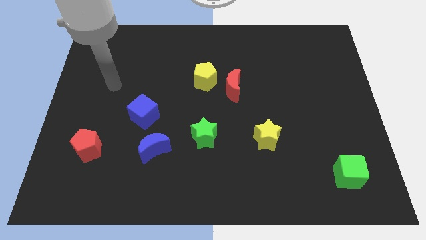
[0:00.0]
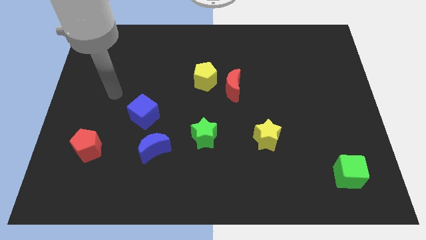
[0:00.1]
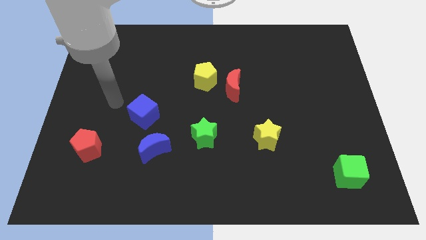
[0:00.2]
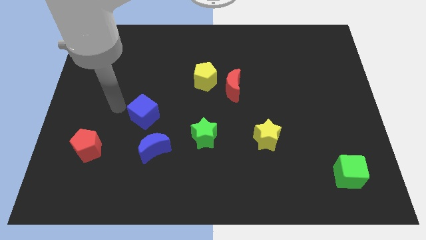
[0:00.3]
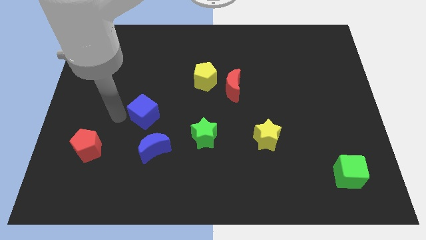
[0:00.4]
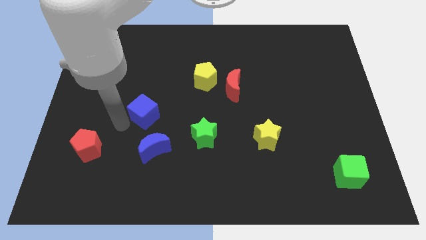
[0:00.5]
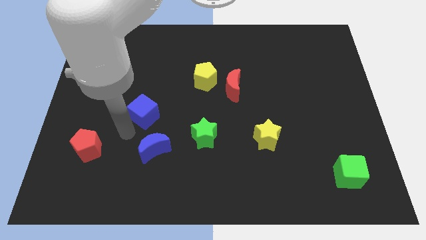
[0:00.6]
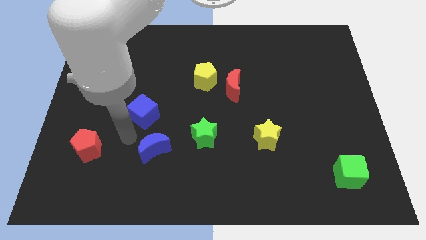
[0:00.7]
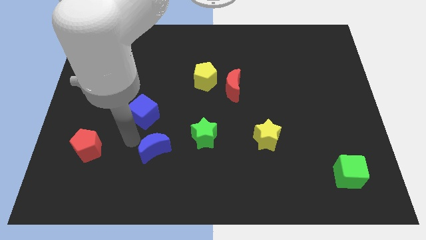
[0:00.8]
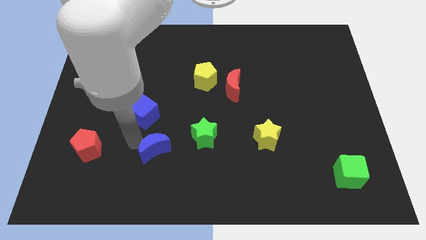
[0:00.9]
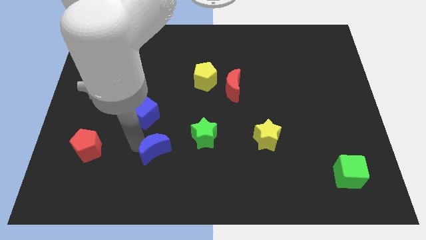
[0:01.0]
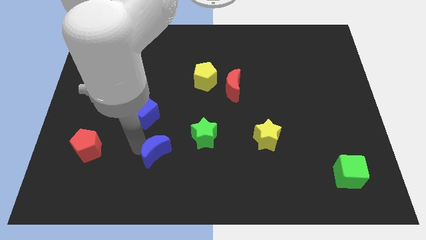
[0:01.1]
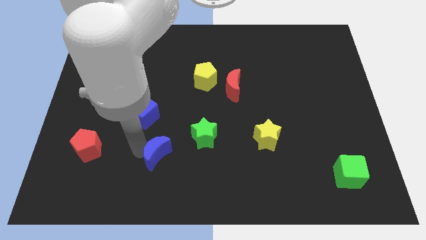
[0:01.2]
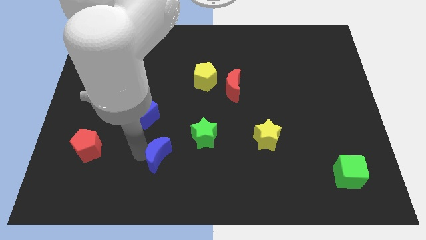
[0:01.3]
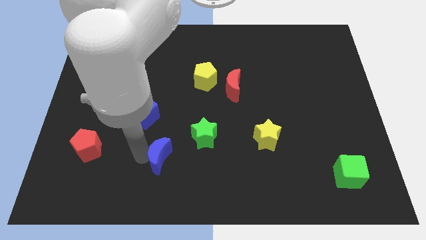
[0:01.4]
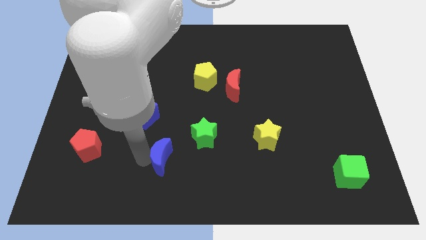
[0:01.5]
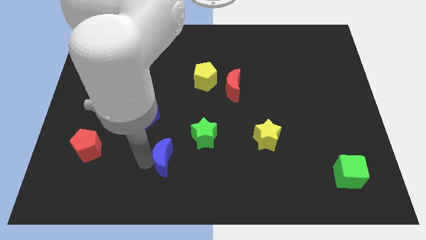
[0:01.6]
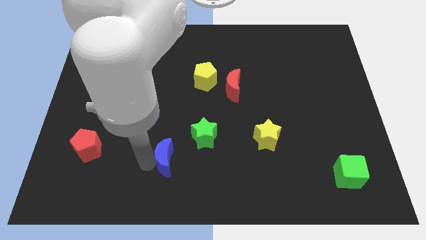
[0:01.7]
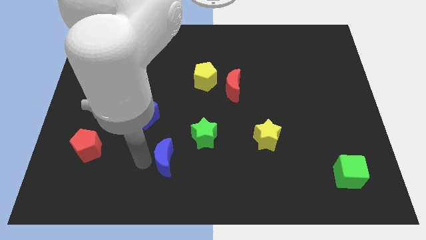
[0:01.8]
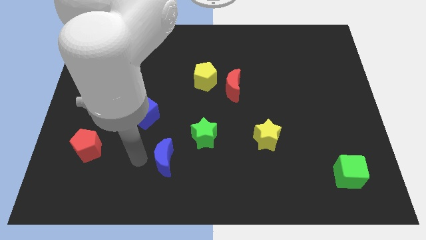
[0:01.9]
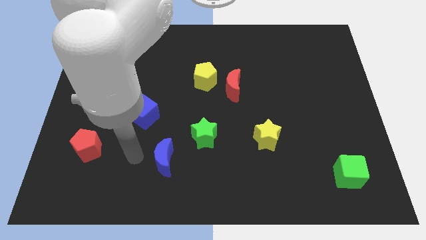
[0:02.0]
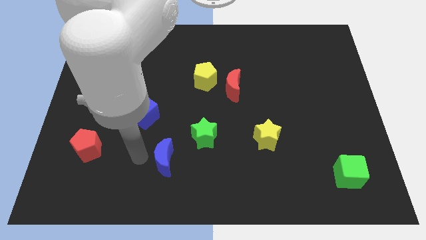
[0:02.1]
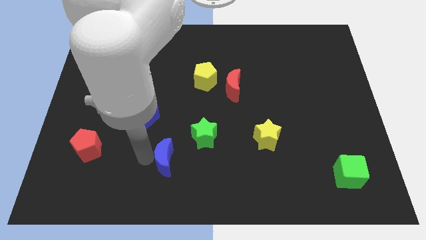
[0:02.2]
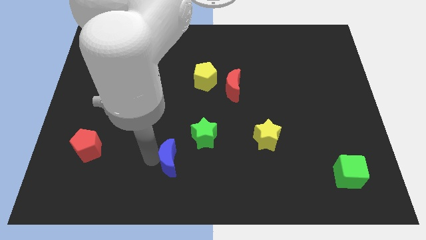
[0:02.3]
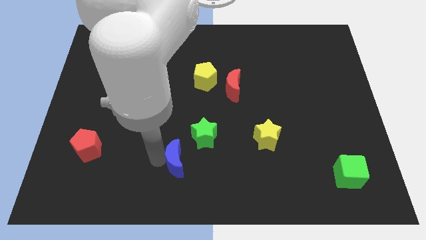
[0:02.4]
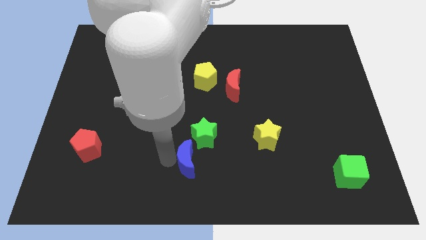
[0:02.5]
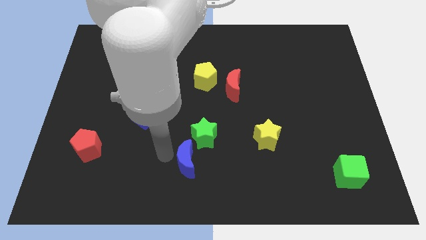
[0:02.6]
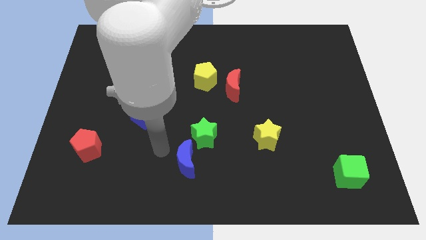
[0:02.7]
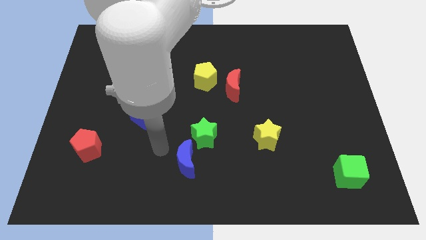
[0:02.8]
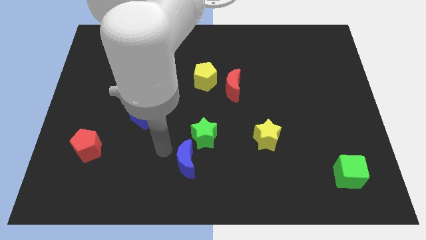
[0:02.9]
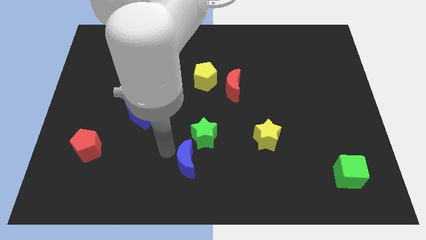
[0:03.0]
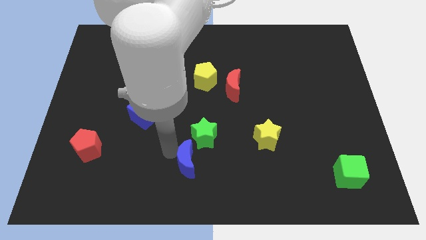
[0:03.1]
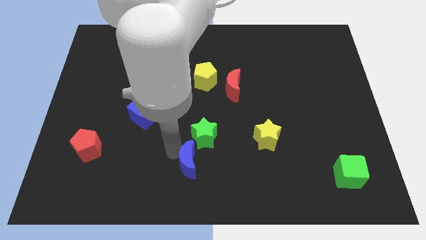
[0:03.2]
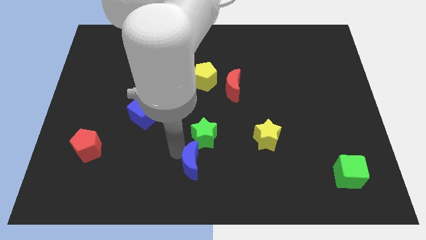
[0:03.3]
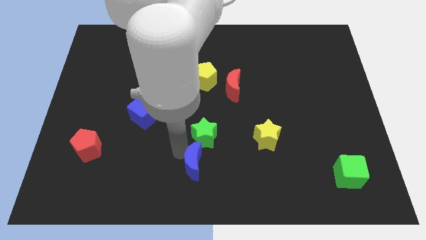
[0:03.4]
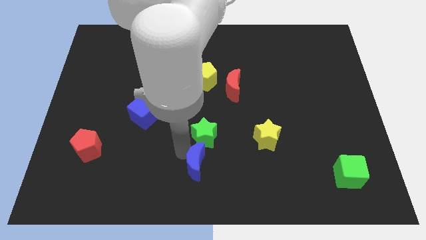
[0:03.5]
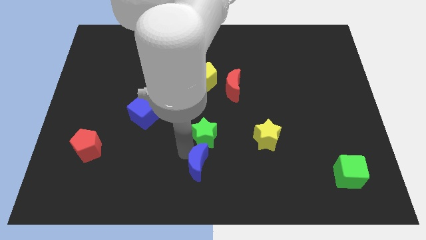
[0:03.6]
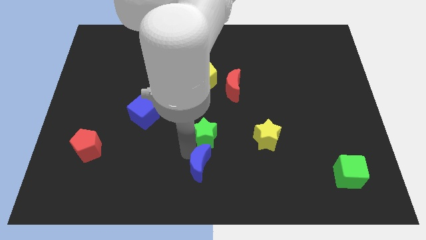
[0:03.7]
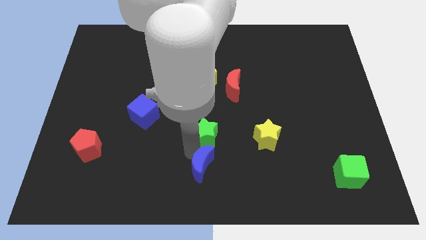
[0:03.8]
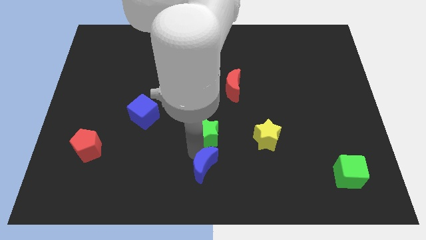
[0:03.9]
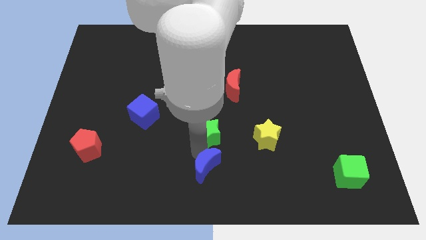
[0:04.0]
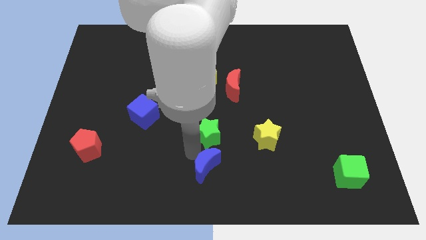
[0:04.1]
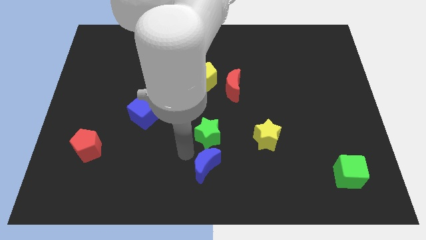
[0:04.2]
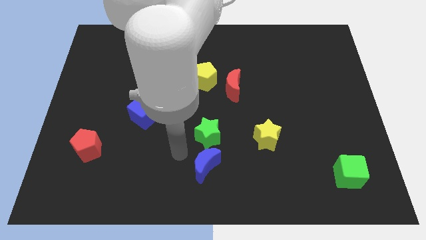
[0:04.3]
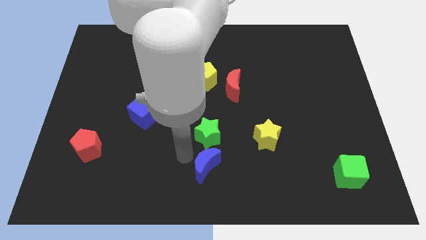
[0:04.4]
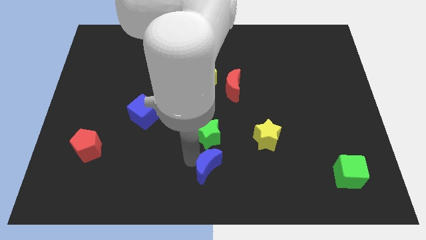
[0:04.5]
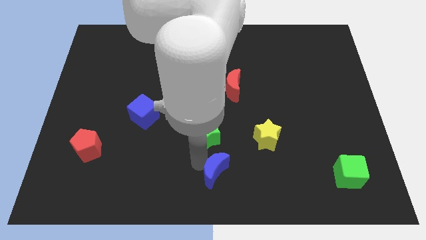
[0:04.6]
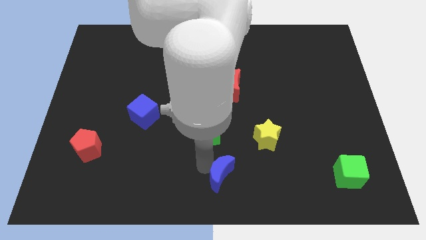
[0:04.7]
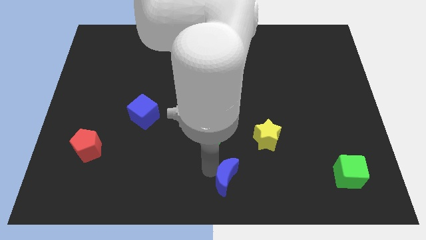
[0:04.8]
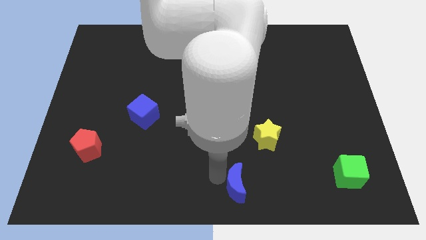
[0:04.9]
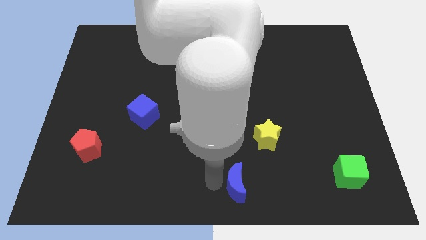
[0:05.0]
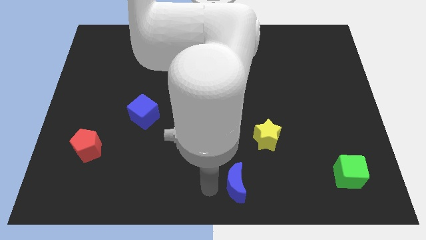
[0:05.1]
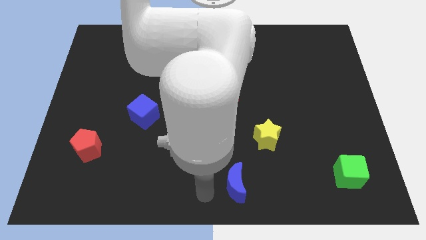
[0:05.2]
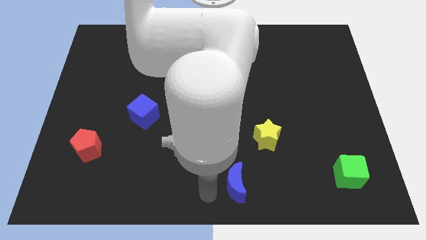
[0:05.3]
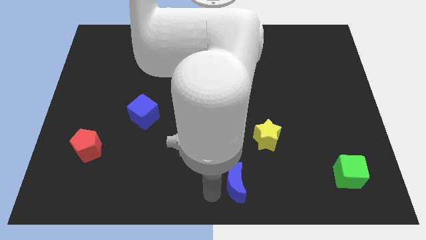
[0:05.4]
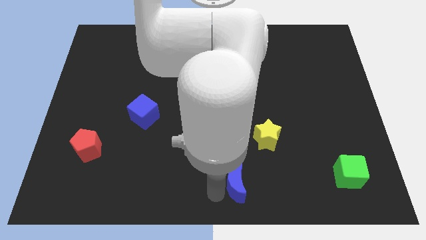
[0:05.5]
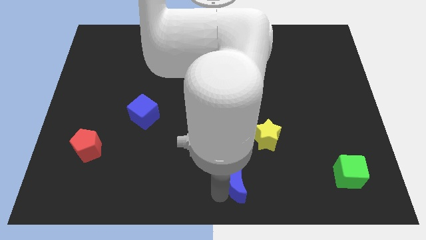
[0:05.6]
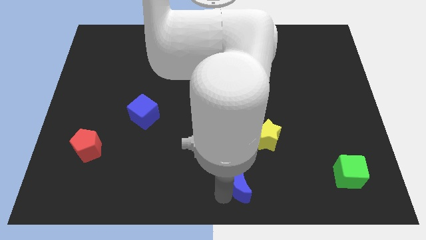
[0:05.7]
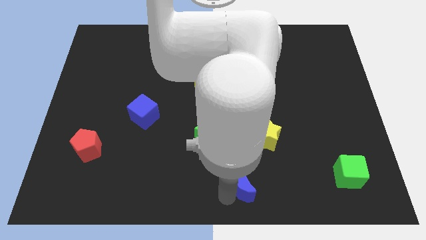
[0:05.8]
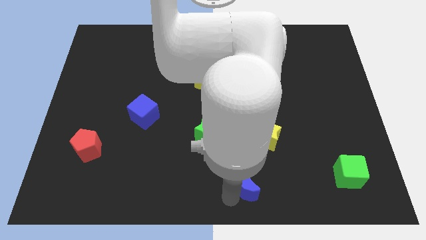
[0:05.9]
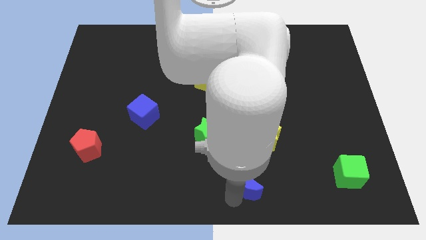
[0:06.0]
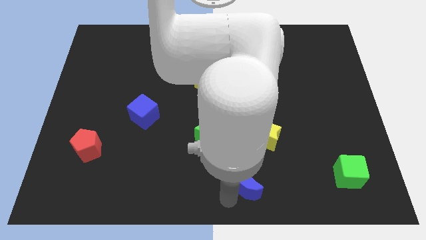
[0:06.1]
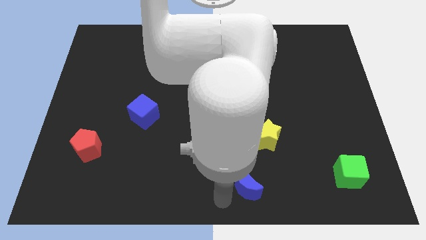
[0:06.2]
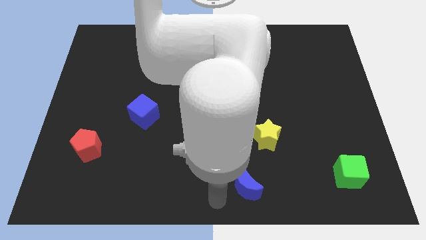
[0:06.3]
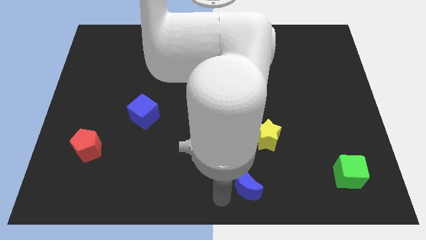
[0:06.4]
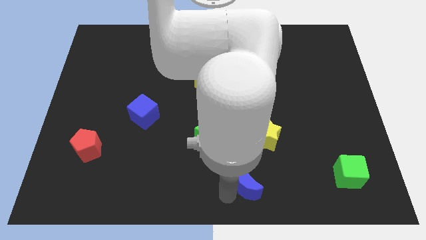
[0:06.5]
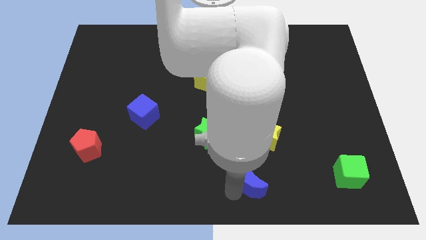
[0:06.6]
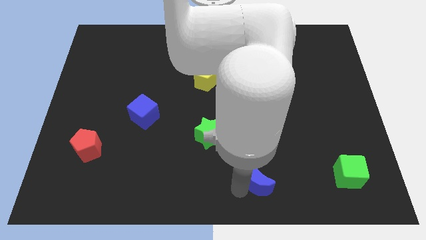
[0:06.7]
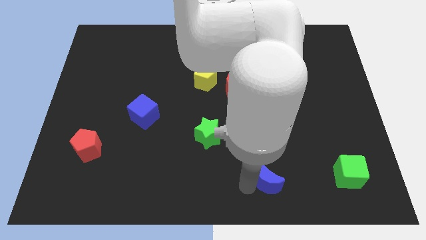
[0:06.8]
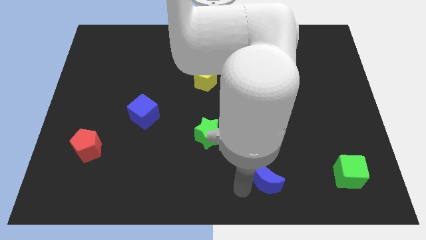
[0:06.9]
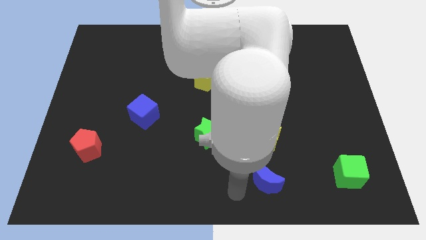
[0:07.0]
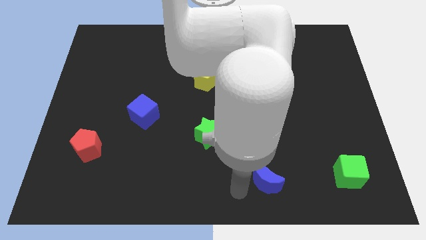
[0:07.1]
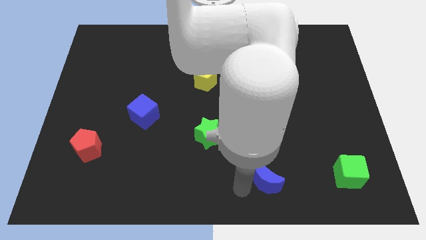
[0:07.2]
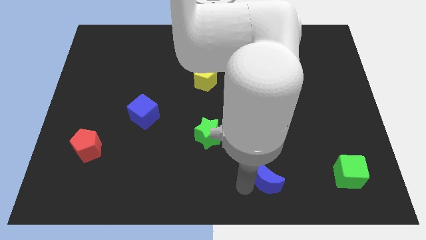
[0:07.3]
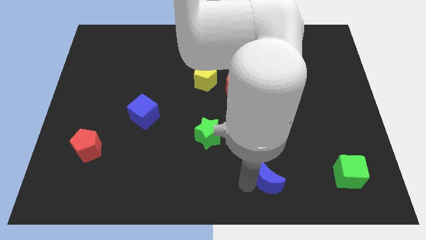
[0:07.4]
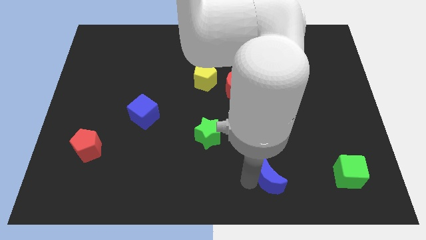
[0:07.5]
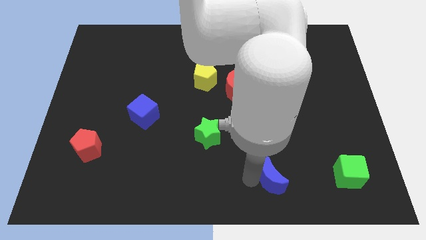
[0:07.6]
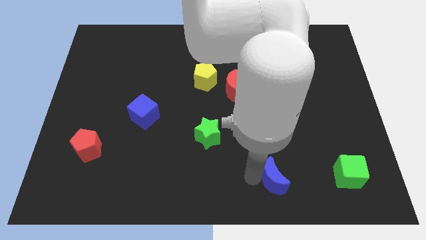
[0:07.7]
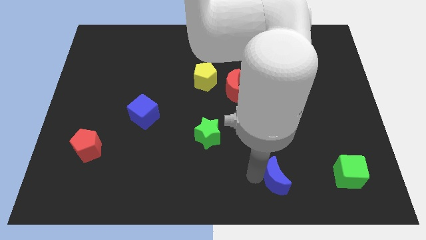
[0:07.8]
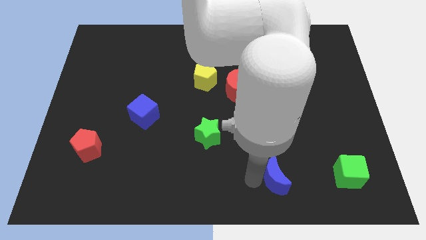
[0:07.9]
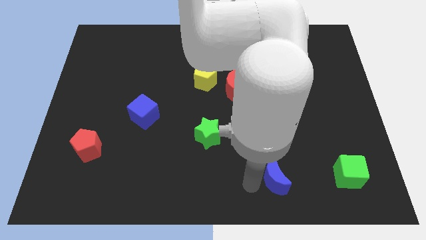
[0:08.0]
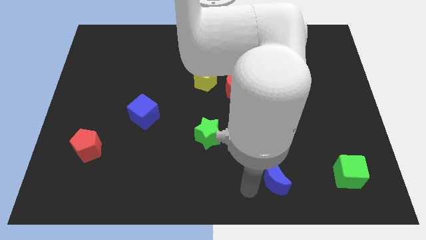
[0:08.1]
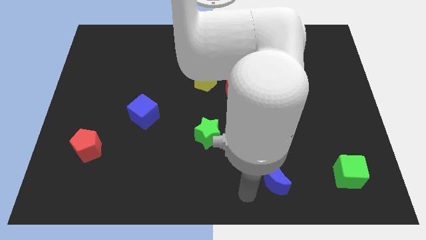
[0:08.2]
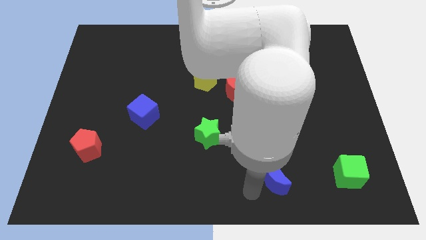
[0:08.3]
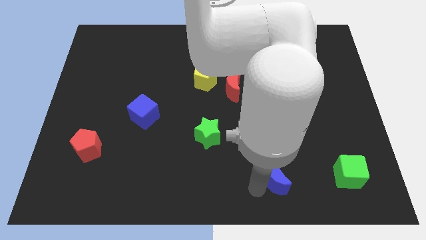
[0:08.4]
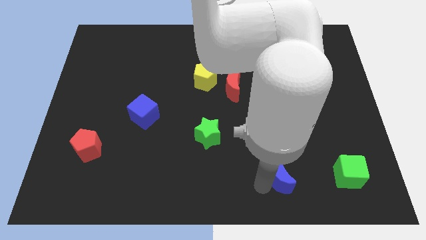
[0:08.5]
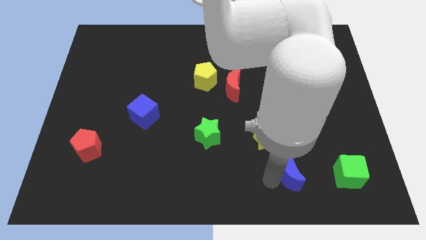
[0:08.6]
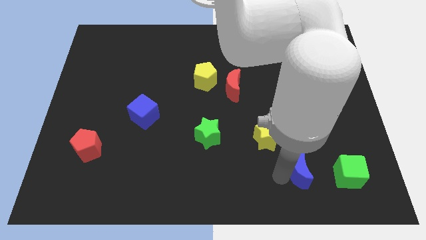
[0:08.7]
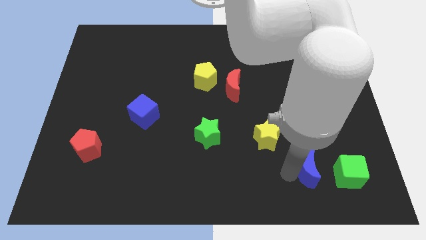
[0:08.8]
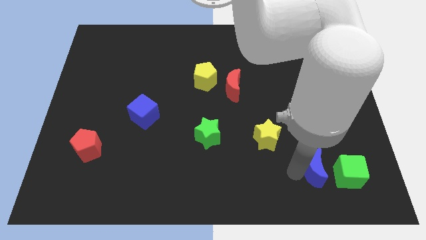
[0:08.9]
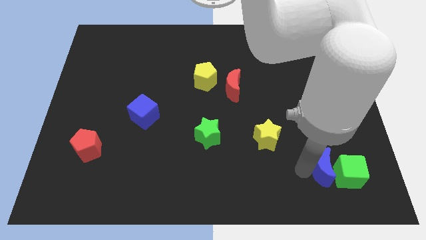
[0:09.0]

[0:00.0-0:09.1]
put the blue moon next to the green cube
